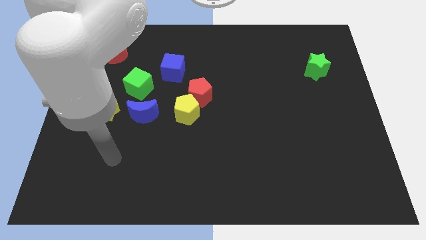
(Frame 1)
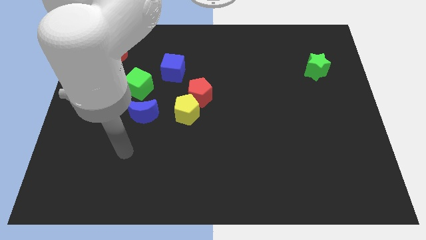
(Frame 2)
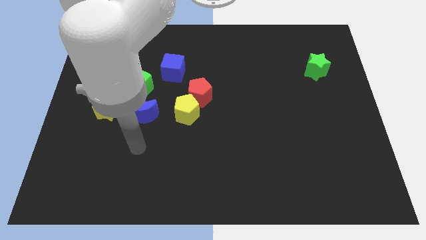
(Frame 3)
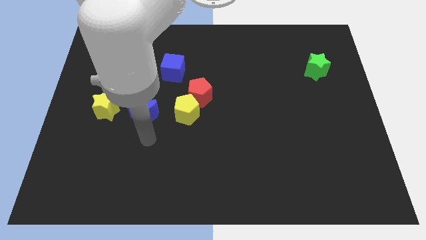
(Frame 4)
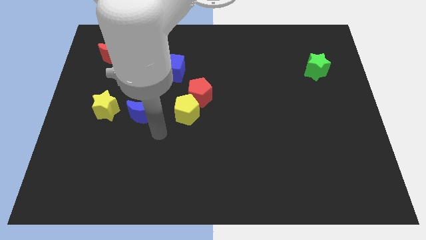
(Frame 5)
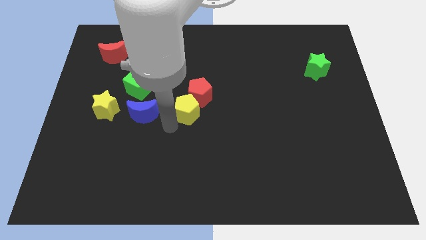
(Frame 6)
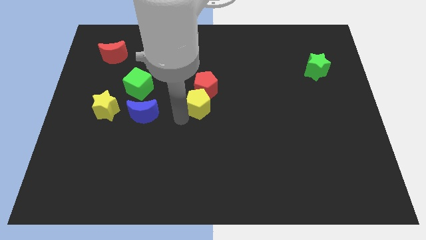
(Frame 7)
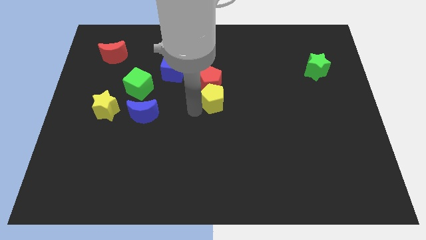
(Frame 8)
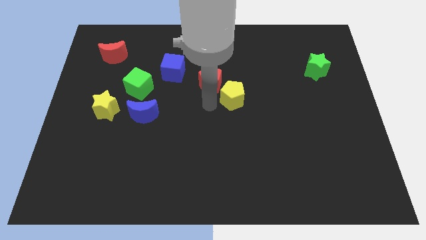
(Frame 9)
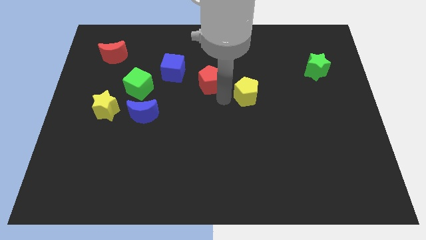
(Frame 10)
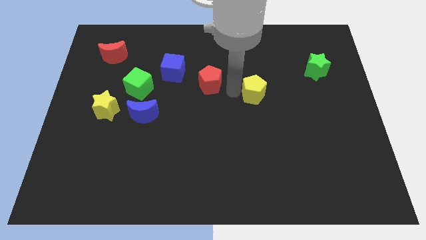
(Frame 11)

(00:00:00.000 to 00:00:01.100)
move the red pentagon away from the yellow pentagon

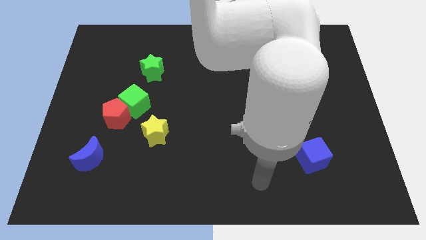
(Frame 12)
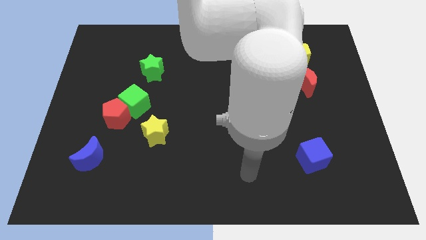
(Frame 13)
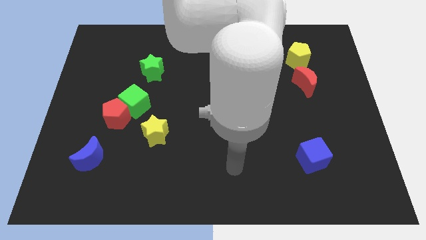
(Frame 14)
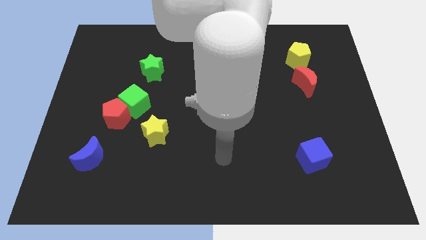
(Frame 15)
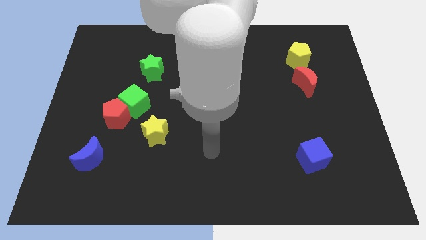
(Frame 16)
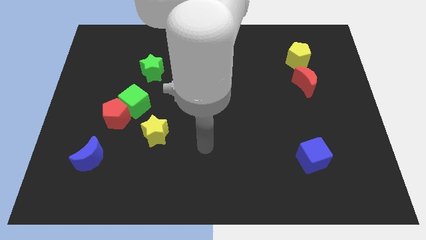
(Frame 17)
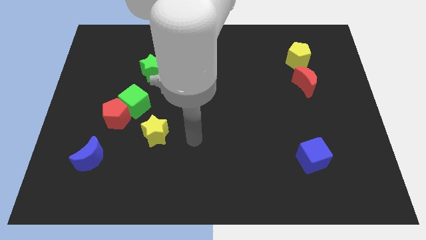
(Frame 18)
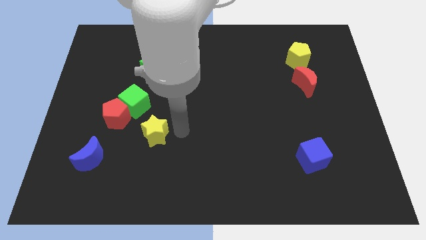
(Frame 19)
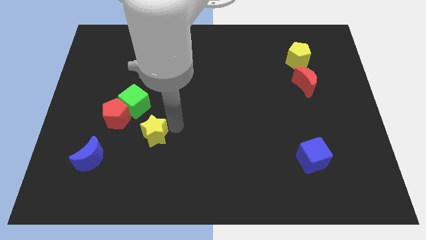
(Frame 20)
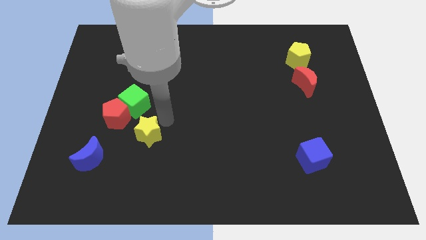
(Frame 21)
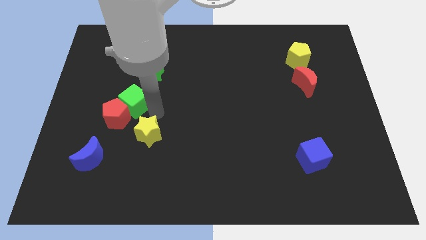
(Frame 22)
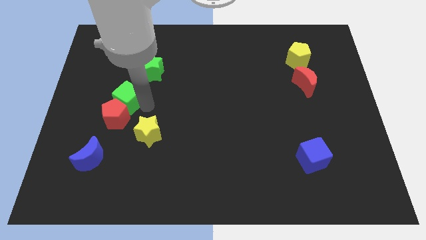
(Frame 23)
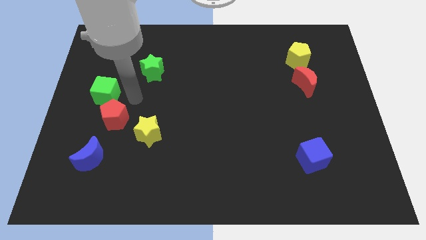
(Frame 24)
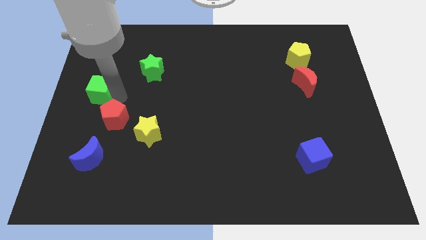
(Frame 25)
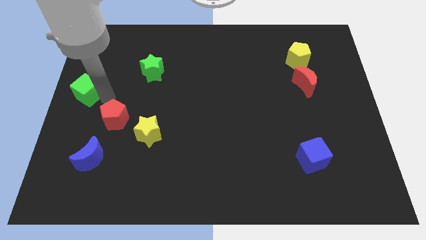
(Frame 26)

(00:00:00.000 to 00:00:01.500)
separate the red pentagon from the green cube

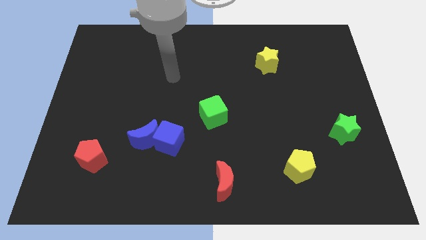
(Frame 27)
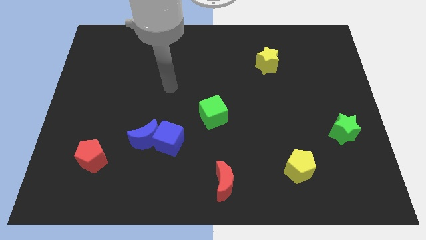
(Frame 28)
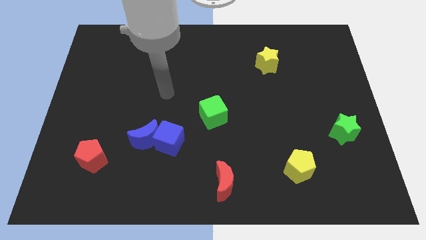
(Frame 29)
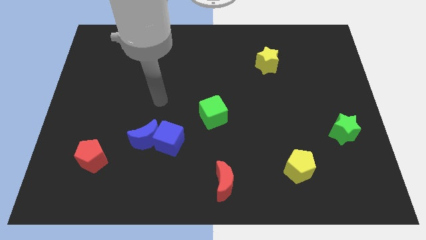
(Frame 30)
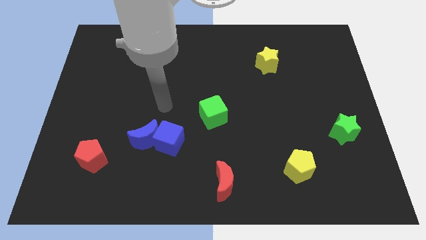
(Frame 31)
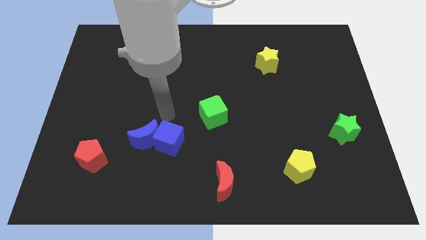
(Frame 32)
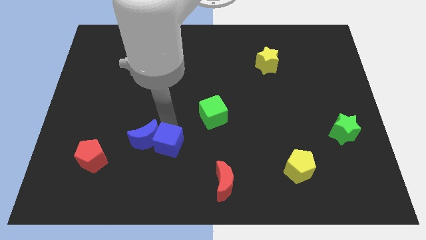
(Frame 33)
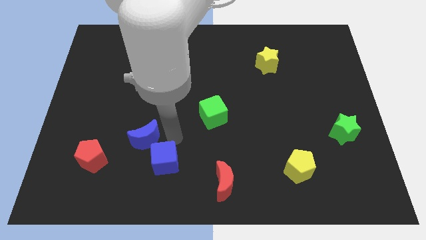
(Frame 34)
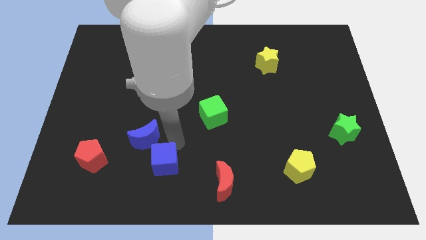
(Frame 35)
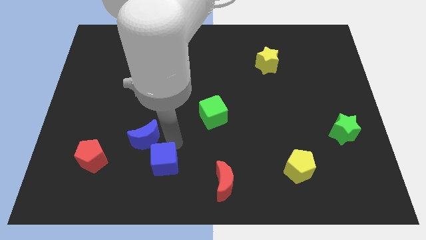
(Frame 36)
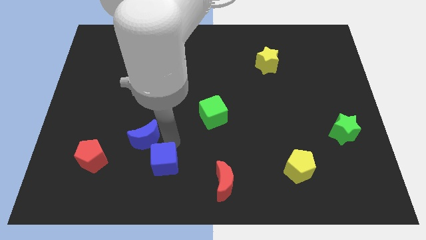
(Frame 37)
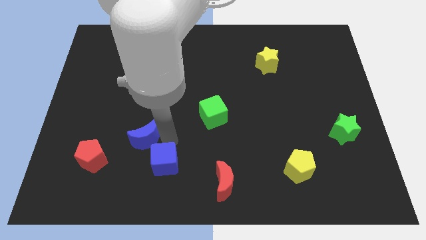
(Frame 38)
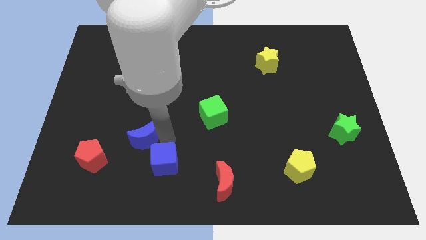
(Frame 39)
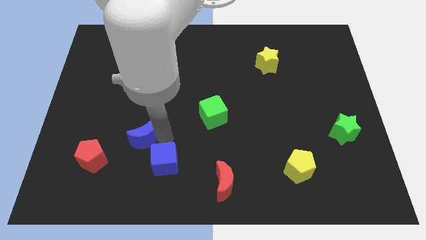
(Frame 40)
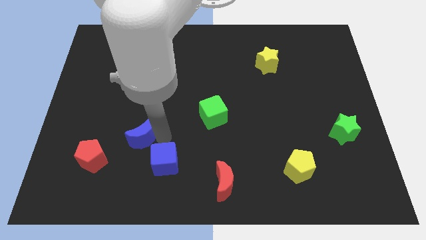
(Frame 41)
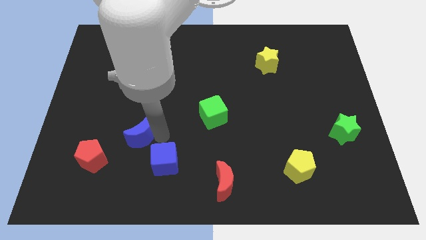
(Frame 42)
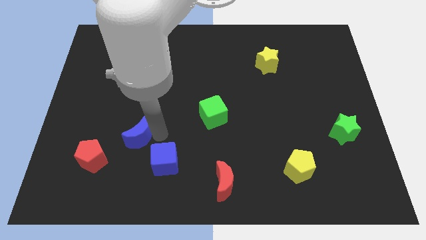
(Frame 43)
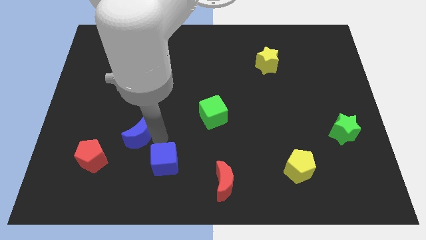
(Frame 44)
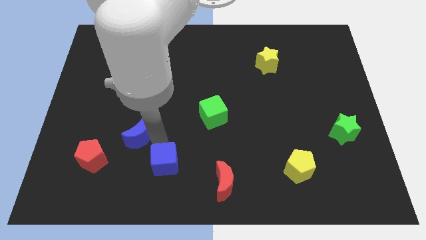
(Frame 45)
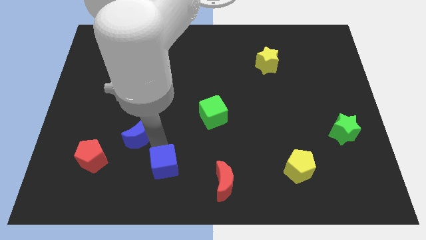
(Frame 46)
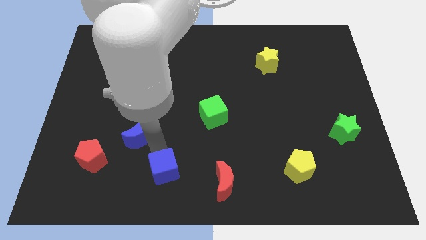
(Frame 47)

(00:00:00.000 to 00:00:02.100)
move the blue moon away from the blue cube

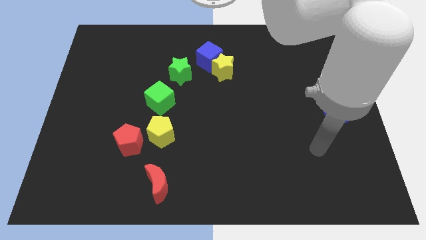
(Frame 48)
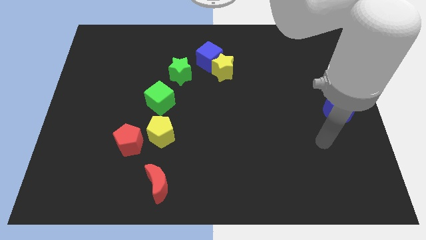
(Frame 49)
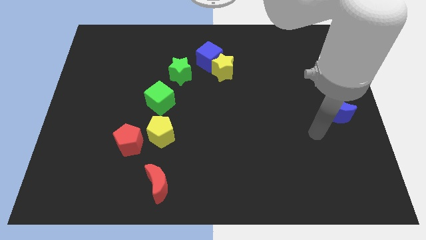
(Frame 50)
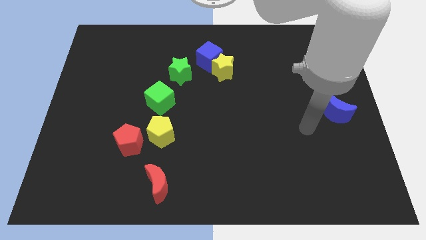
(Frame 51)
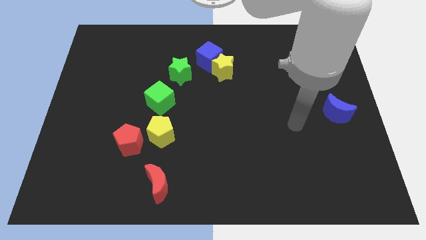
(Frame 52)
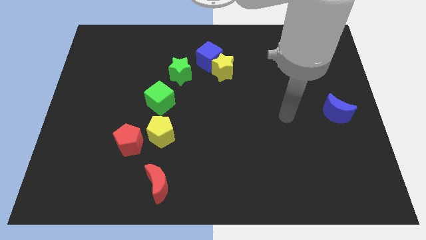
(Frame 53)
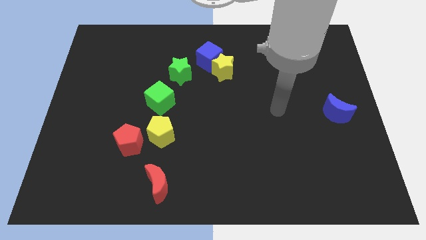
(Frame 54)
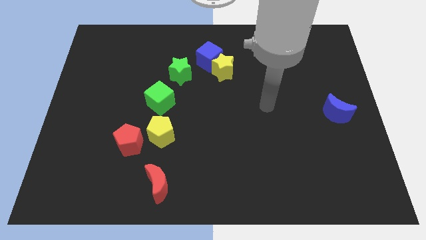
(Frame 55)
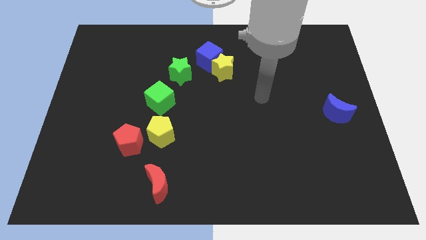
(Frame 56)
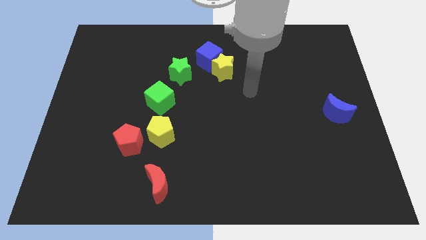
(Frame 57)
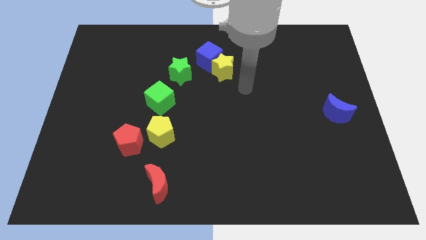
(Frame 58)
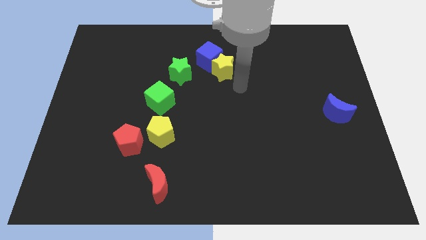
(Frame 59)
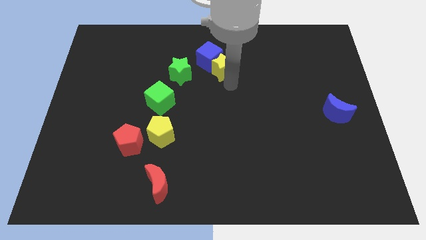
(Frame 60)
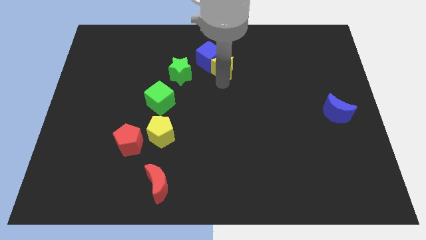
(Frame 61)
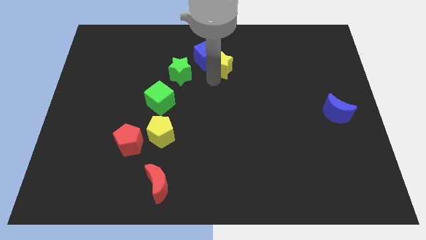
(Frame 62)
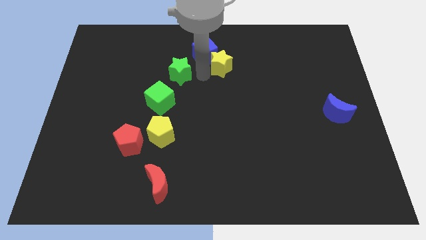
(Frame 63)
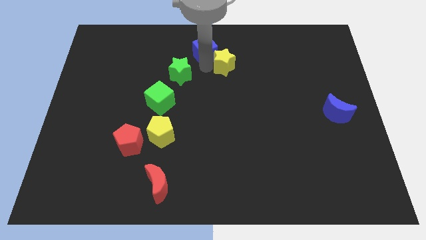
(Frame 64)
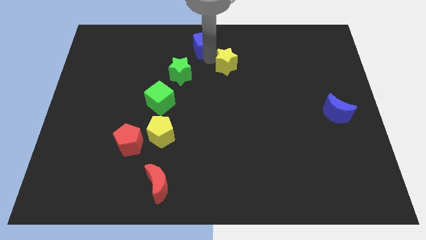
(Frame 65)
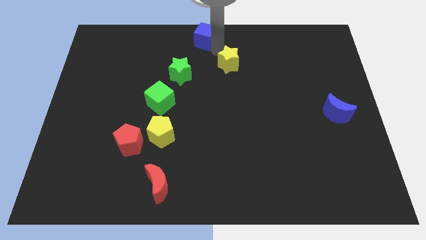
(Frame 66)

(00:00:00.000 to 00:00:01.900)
move the yellow star away from the blue cube

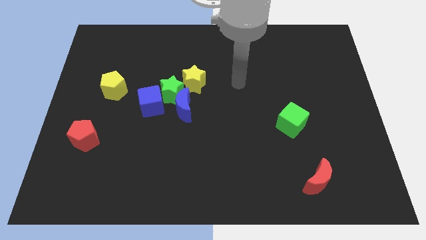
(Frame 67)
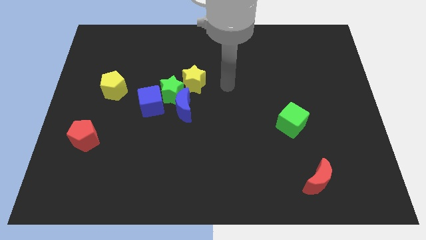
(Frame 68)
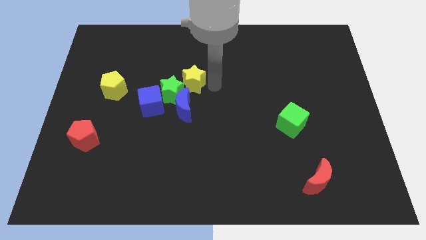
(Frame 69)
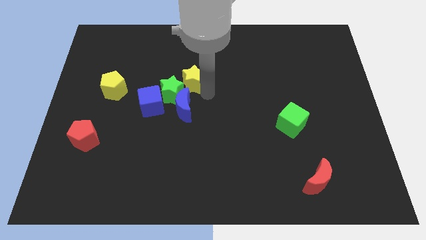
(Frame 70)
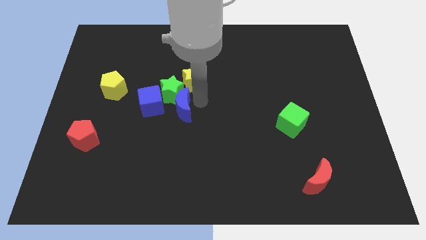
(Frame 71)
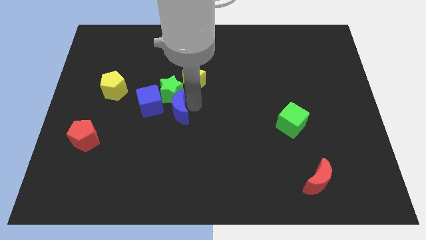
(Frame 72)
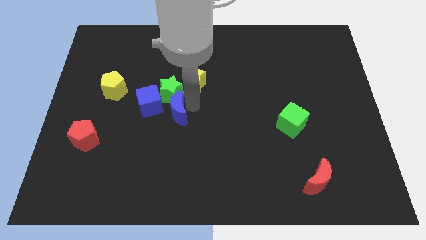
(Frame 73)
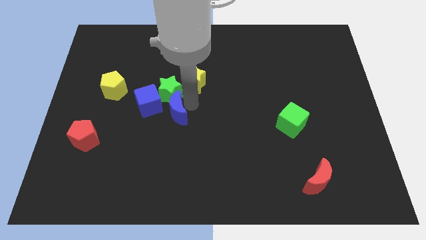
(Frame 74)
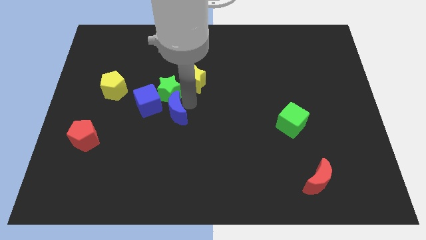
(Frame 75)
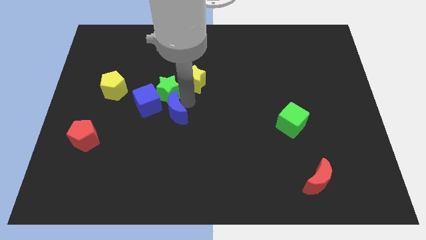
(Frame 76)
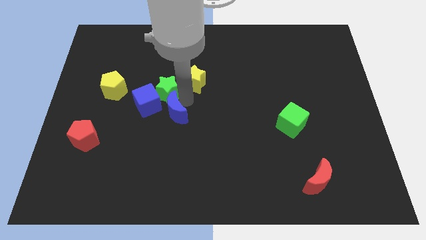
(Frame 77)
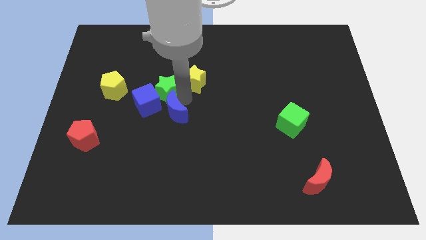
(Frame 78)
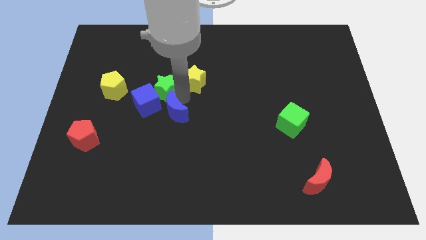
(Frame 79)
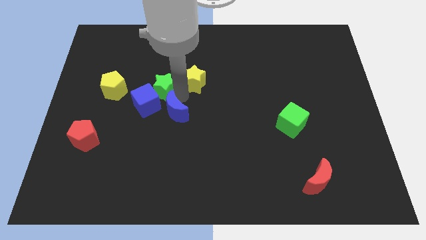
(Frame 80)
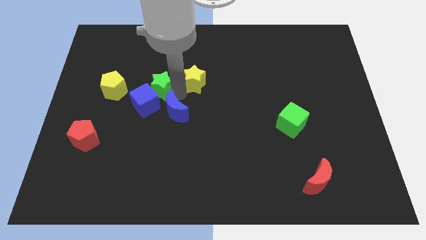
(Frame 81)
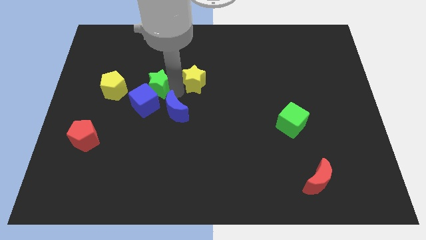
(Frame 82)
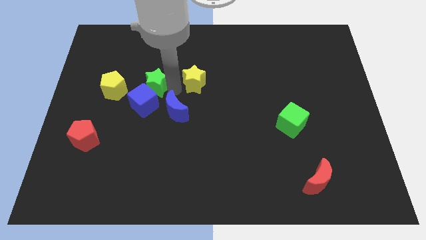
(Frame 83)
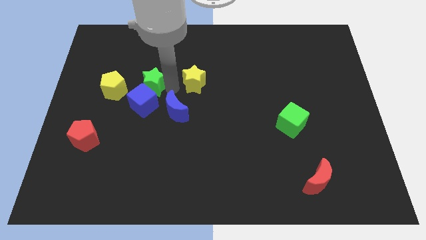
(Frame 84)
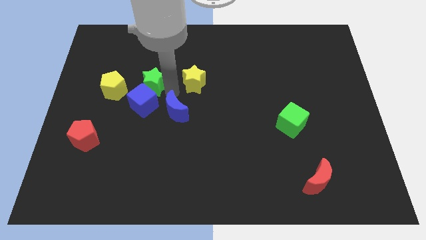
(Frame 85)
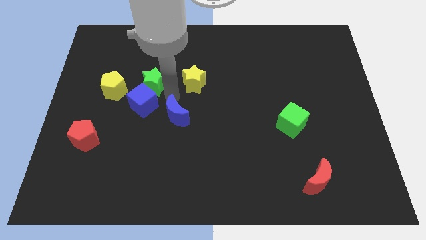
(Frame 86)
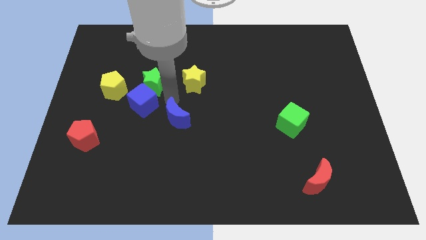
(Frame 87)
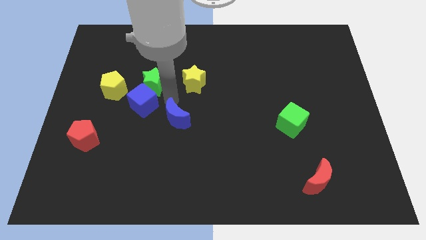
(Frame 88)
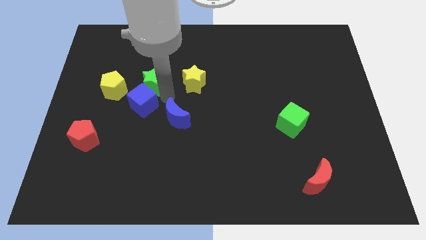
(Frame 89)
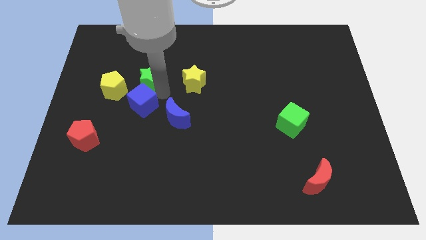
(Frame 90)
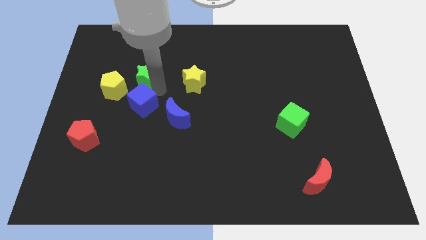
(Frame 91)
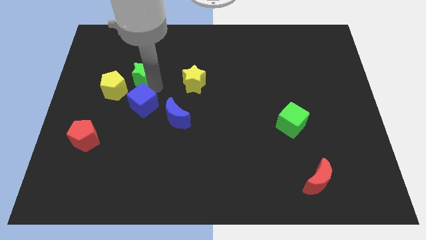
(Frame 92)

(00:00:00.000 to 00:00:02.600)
separate the green star from the blue moon, blue cube, and yellow star
